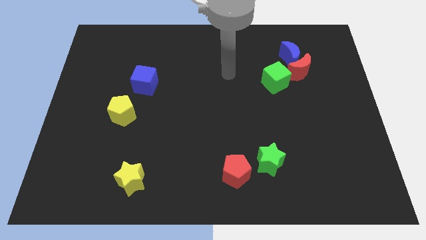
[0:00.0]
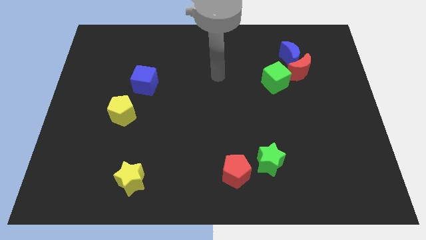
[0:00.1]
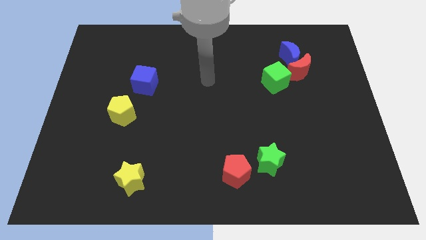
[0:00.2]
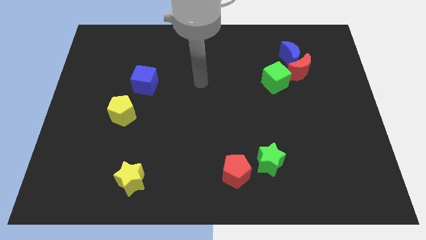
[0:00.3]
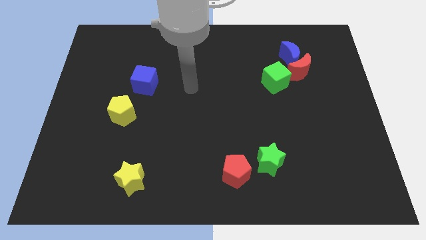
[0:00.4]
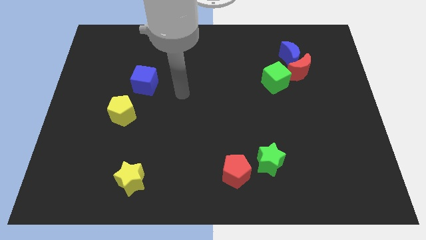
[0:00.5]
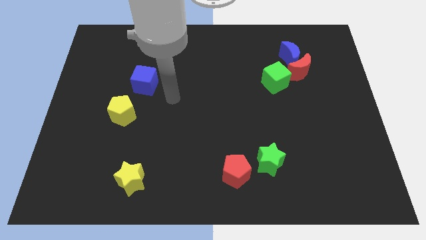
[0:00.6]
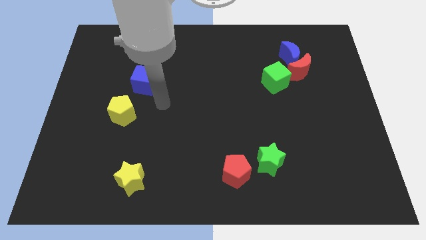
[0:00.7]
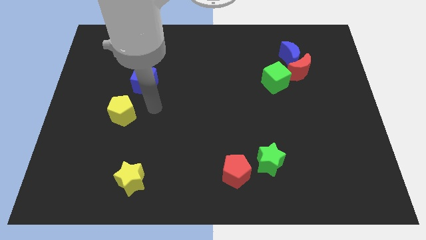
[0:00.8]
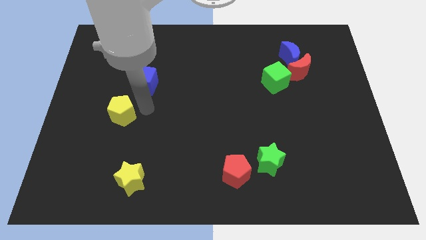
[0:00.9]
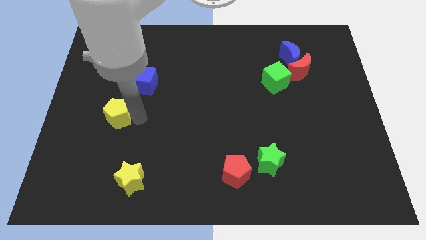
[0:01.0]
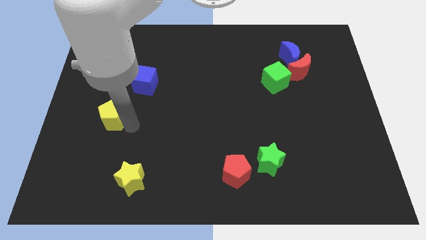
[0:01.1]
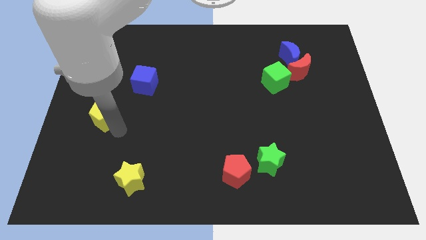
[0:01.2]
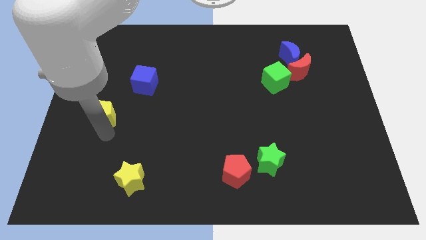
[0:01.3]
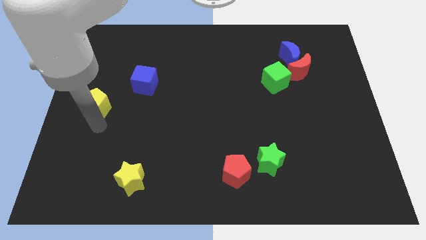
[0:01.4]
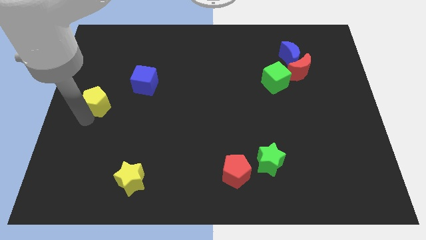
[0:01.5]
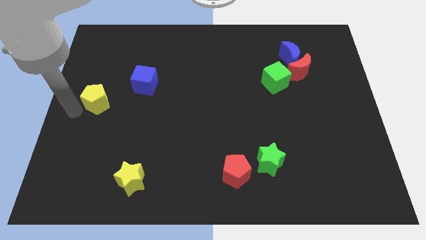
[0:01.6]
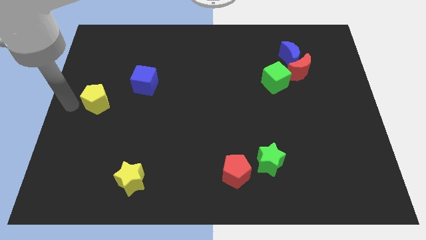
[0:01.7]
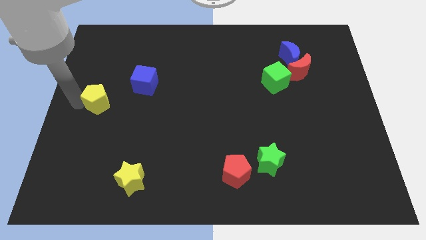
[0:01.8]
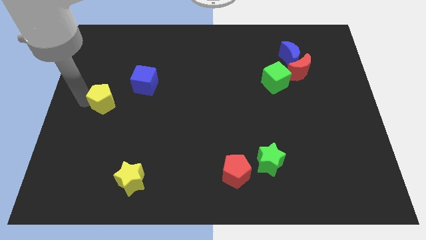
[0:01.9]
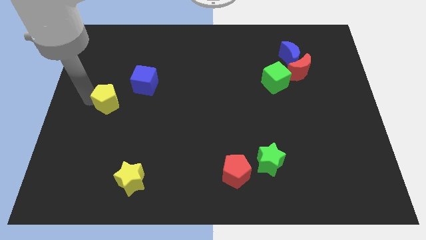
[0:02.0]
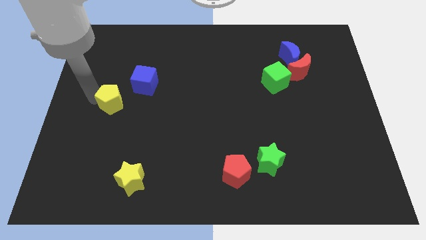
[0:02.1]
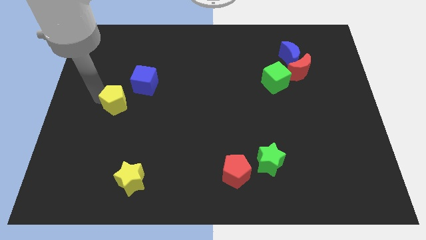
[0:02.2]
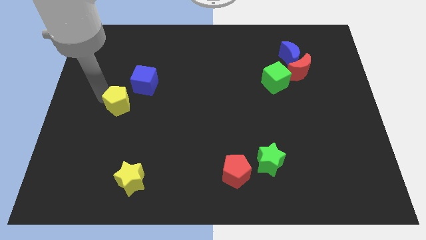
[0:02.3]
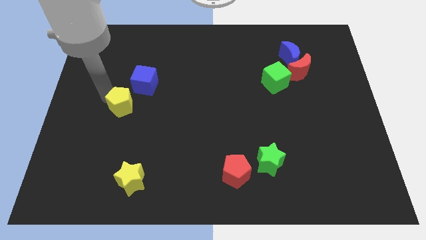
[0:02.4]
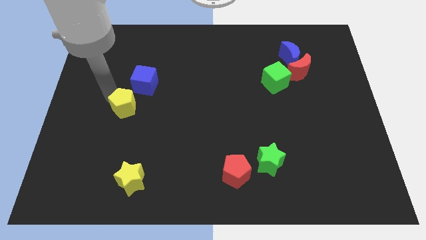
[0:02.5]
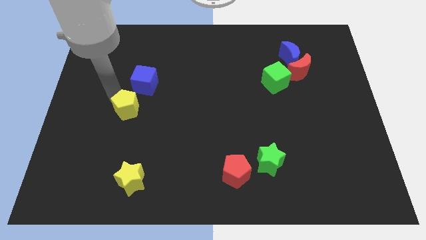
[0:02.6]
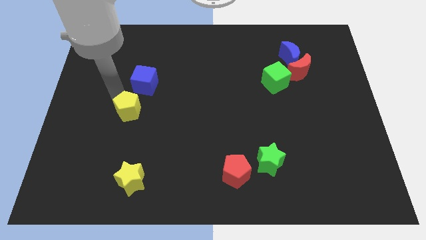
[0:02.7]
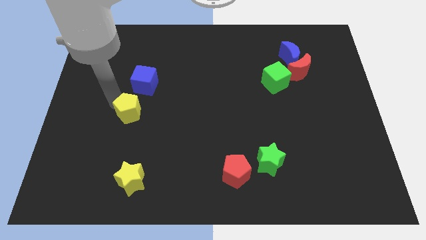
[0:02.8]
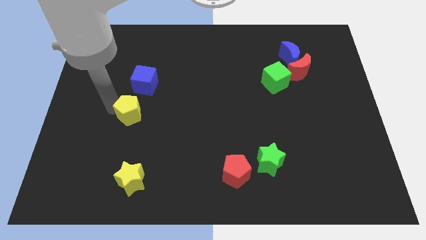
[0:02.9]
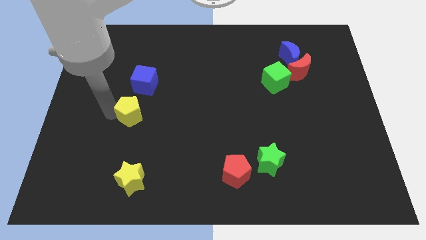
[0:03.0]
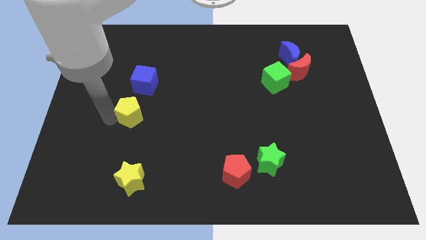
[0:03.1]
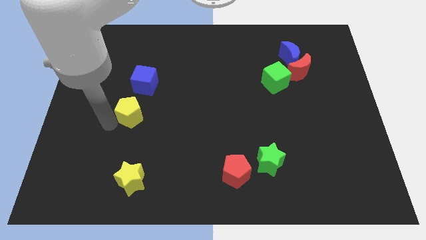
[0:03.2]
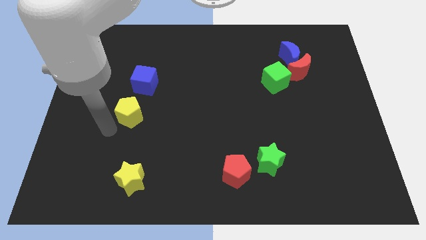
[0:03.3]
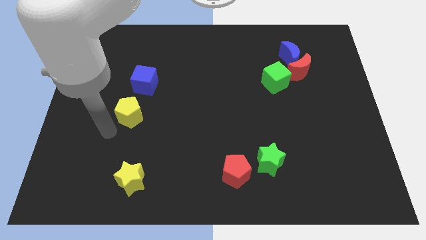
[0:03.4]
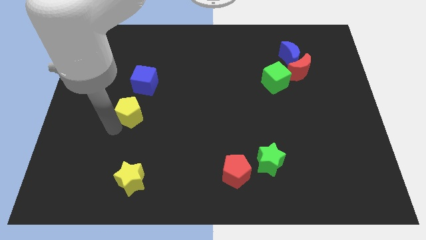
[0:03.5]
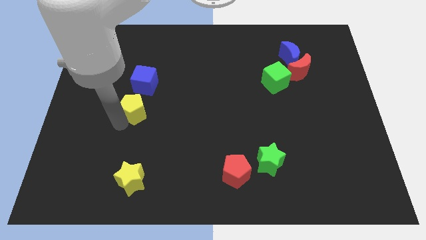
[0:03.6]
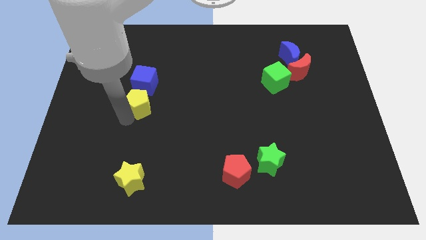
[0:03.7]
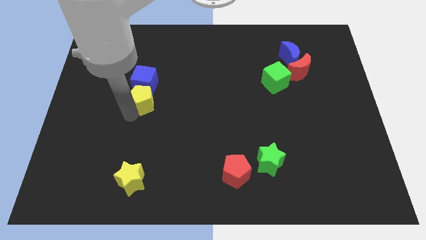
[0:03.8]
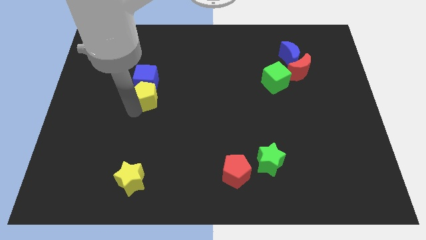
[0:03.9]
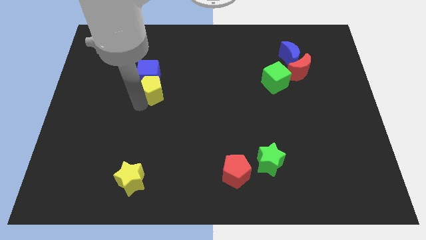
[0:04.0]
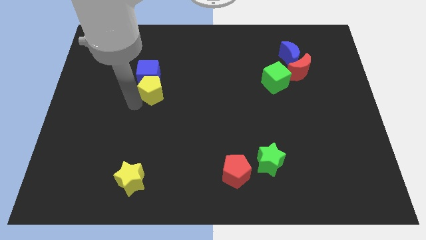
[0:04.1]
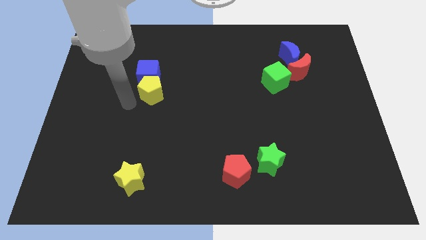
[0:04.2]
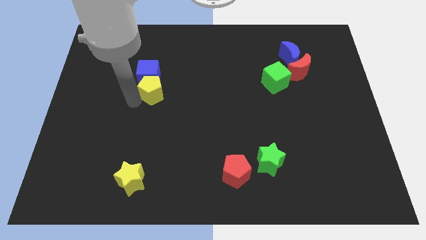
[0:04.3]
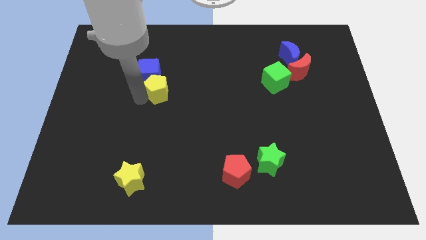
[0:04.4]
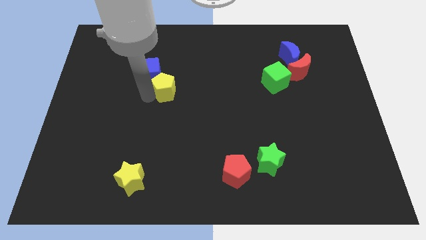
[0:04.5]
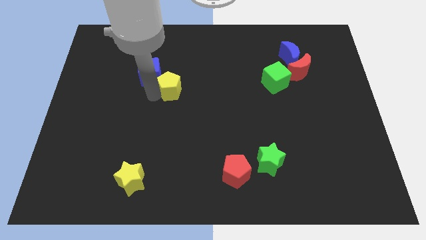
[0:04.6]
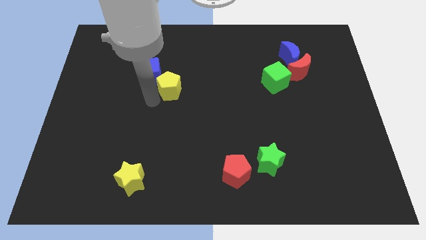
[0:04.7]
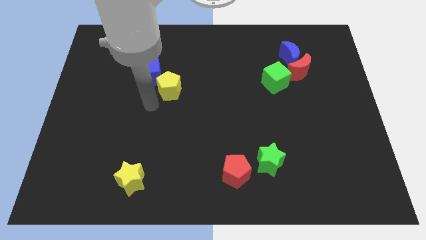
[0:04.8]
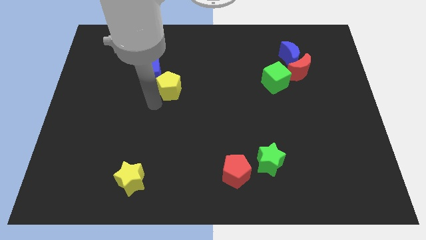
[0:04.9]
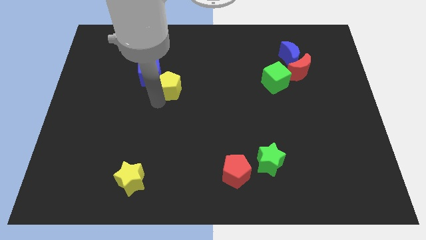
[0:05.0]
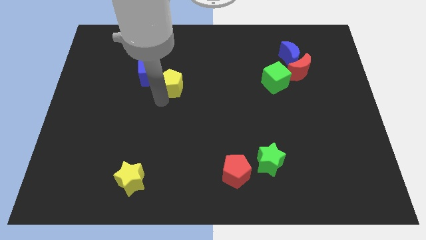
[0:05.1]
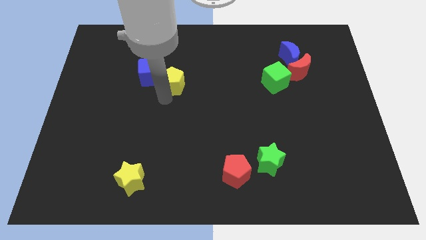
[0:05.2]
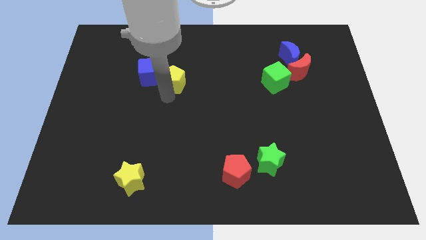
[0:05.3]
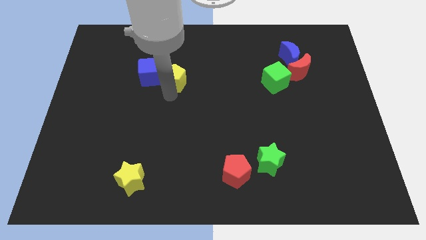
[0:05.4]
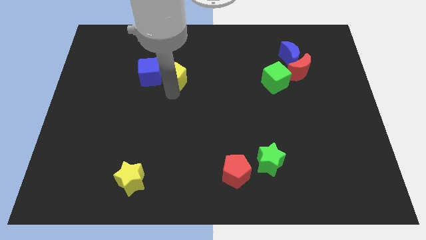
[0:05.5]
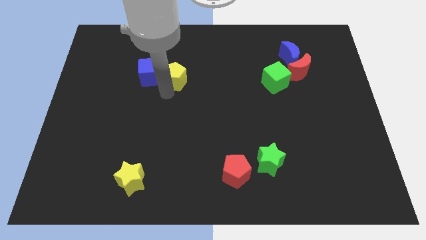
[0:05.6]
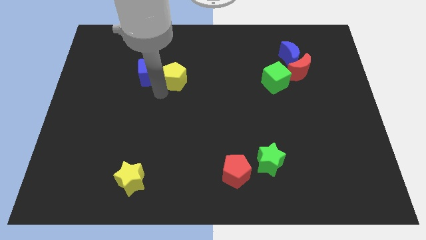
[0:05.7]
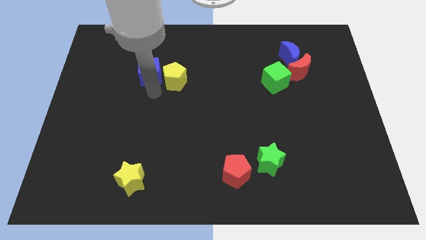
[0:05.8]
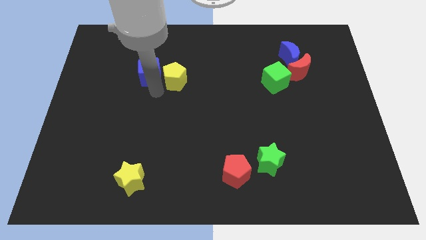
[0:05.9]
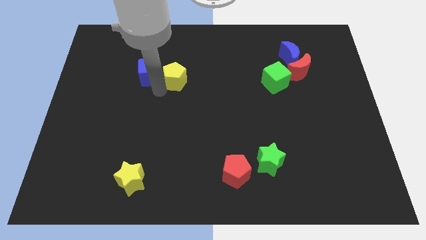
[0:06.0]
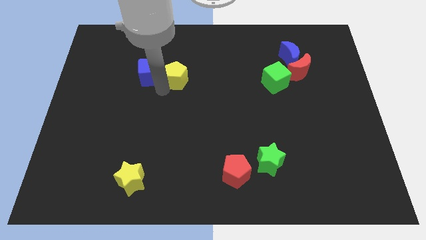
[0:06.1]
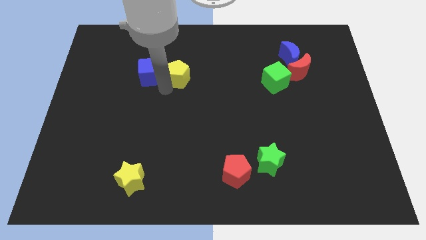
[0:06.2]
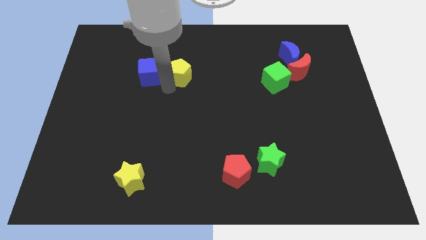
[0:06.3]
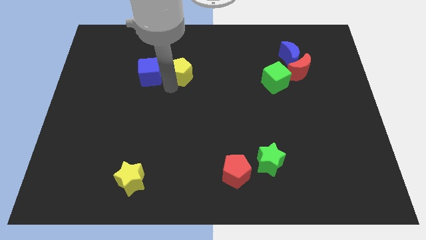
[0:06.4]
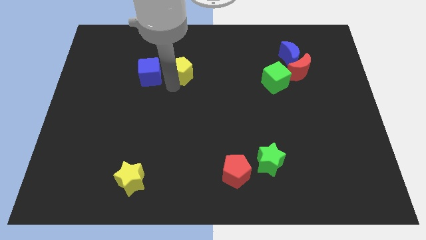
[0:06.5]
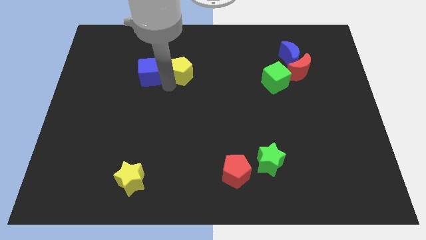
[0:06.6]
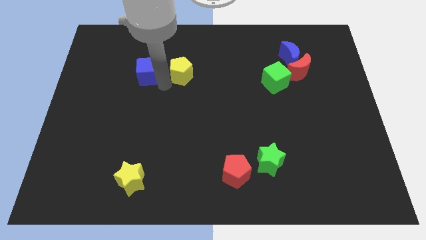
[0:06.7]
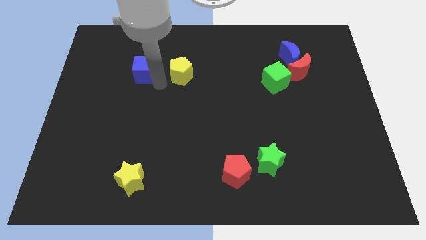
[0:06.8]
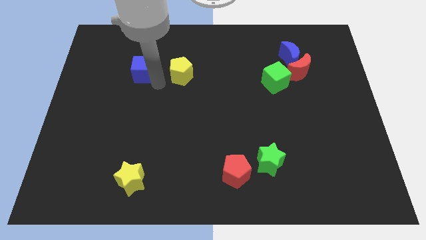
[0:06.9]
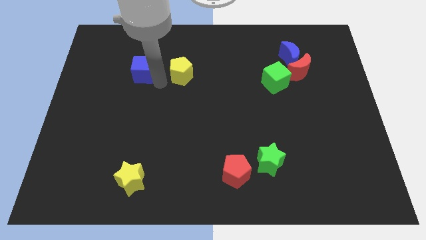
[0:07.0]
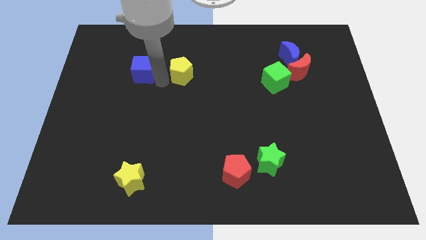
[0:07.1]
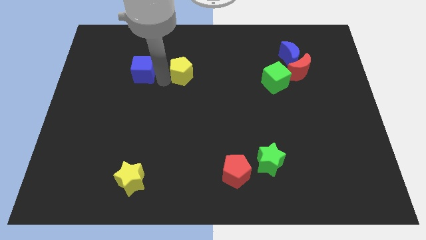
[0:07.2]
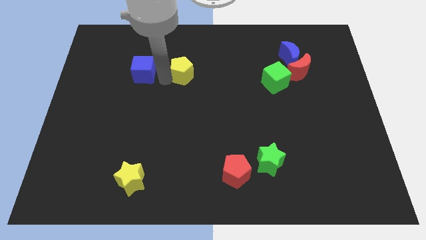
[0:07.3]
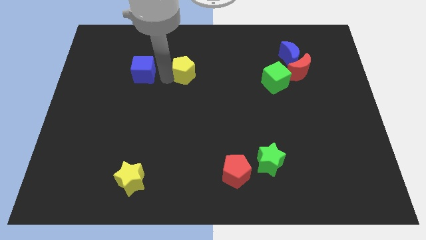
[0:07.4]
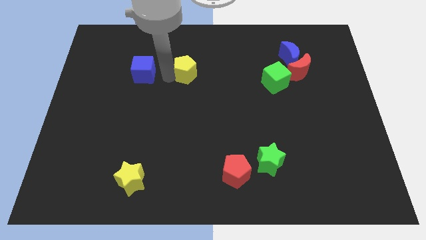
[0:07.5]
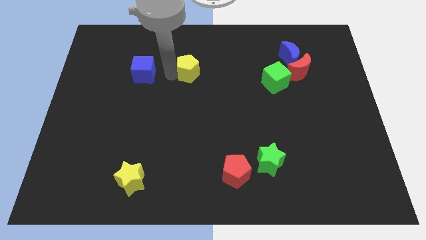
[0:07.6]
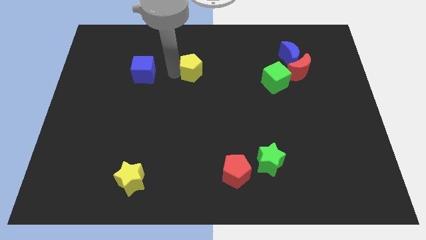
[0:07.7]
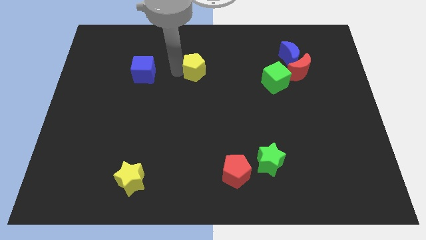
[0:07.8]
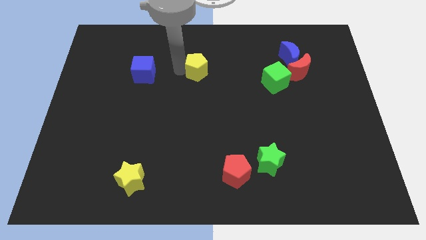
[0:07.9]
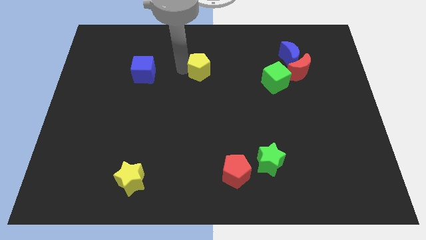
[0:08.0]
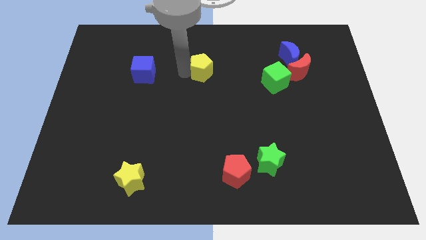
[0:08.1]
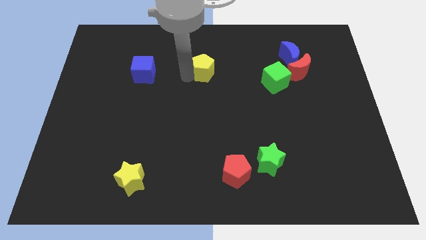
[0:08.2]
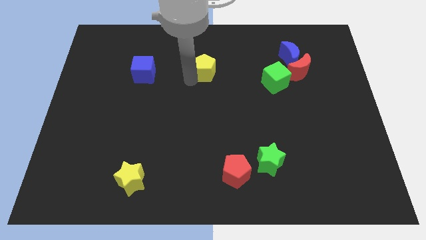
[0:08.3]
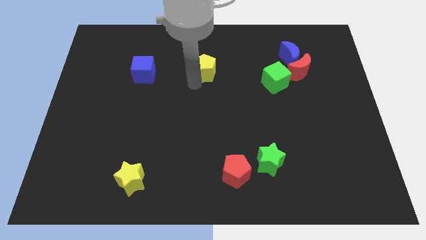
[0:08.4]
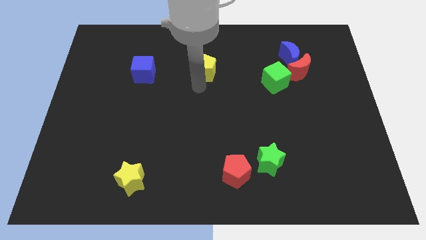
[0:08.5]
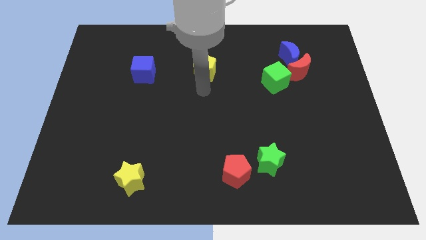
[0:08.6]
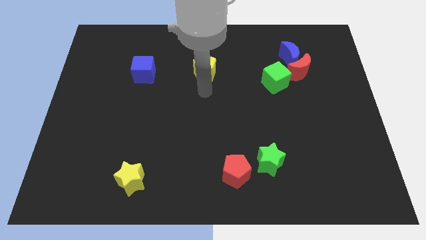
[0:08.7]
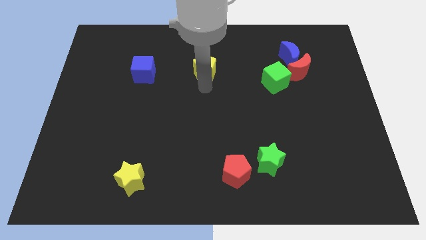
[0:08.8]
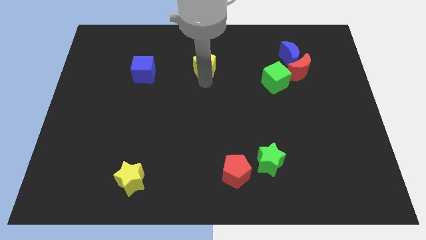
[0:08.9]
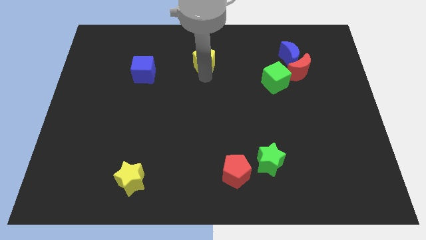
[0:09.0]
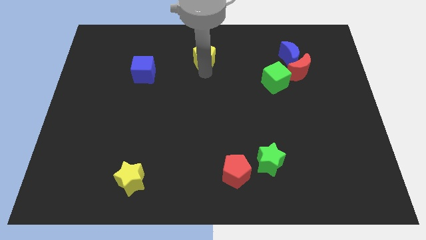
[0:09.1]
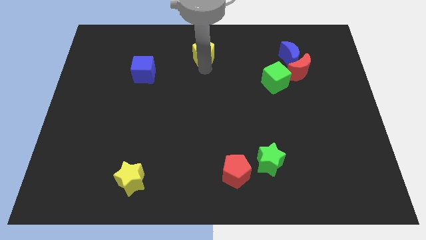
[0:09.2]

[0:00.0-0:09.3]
push the yellow pentagon to the top side
